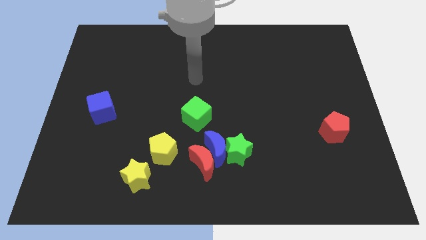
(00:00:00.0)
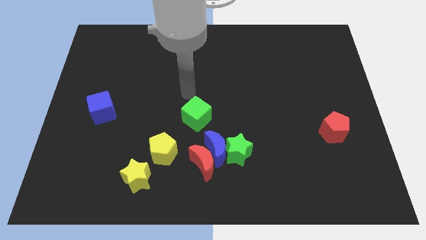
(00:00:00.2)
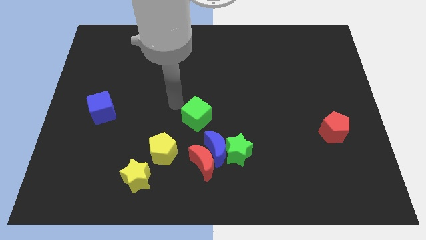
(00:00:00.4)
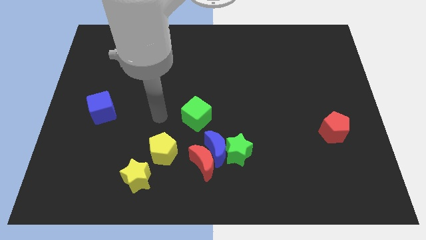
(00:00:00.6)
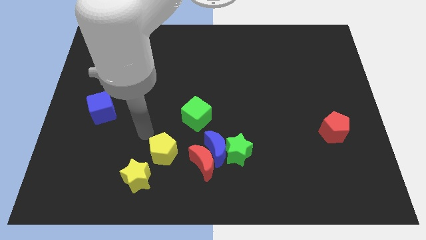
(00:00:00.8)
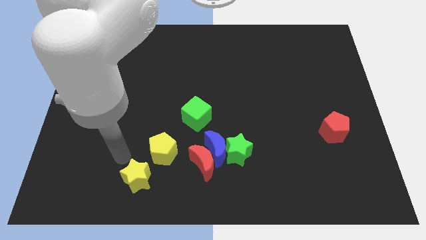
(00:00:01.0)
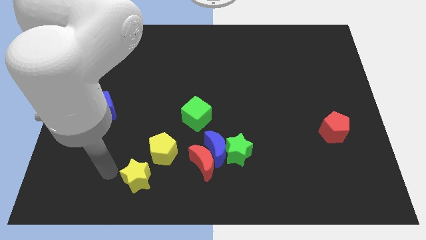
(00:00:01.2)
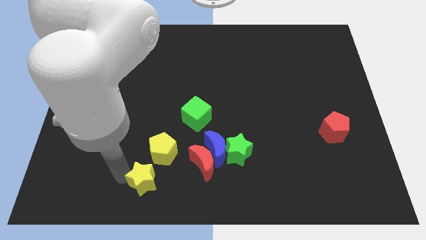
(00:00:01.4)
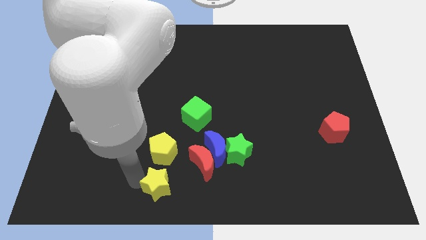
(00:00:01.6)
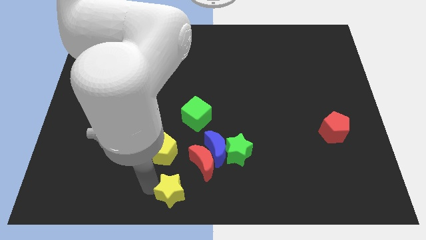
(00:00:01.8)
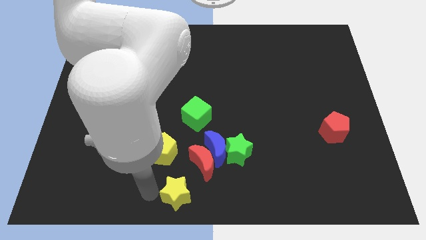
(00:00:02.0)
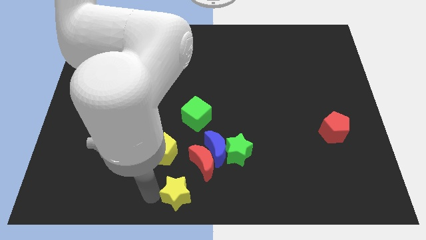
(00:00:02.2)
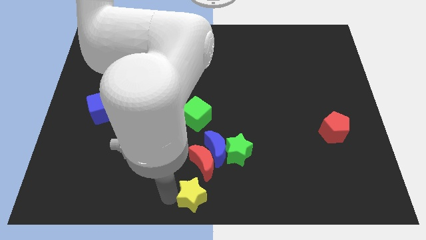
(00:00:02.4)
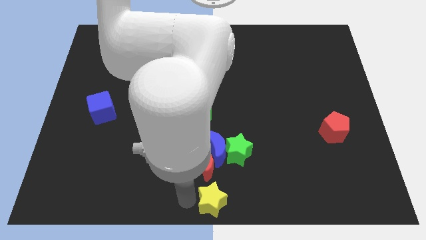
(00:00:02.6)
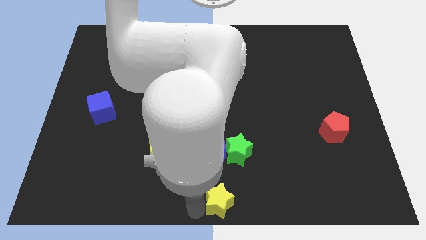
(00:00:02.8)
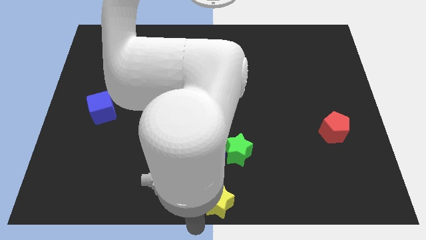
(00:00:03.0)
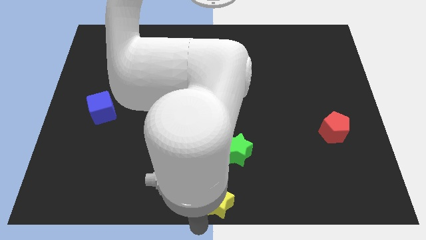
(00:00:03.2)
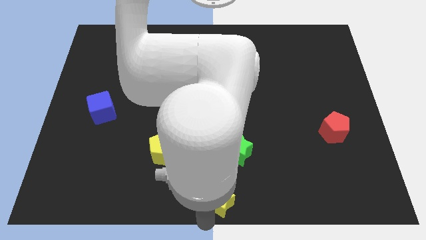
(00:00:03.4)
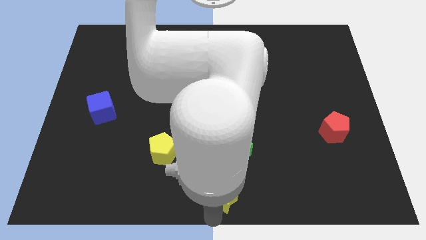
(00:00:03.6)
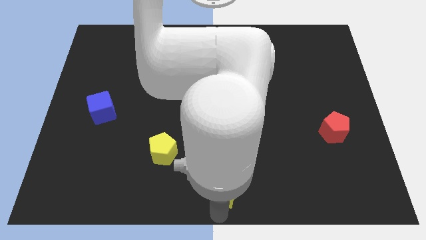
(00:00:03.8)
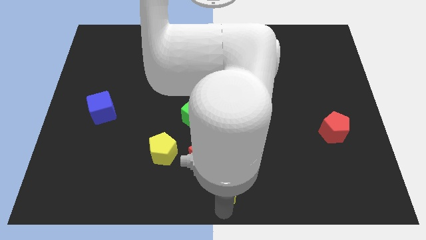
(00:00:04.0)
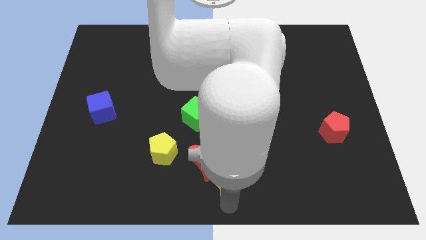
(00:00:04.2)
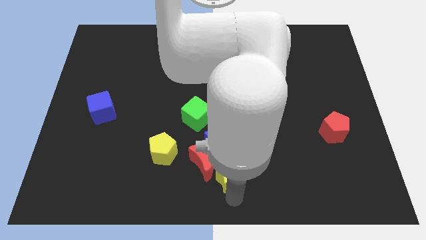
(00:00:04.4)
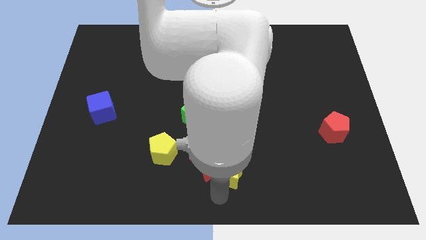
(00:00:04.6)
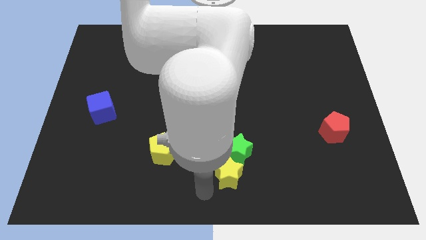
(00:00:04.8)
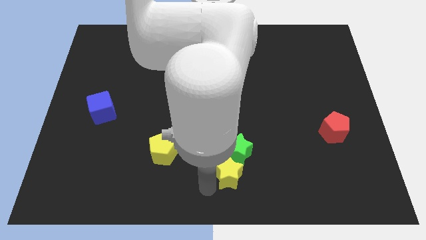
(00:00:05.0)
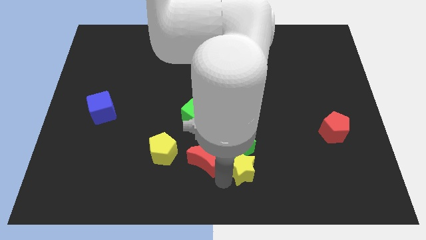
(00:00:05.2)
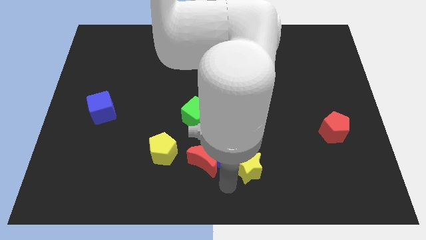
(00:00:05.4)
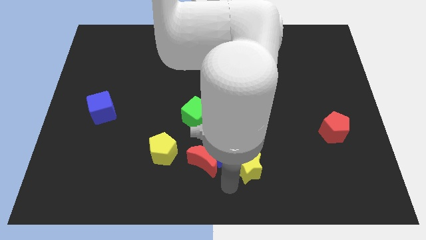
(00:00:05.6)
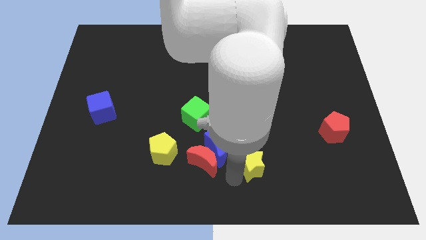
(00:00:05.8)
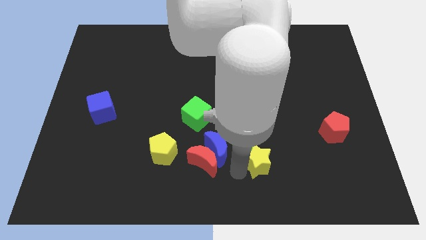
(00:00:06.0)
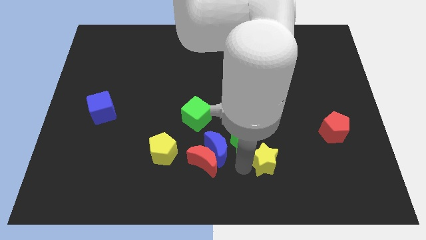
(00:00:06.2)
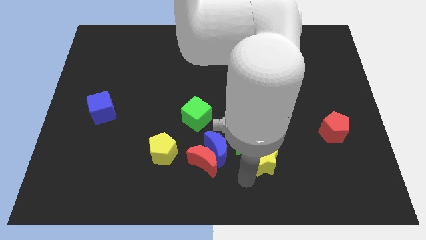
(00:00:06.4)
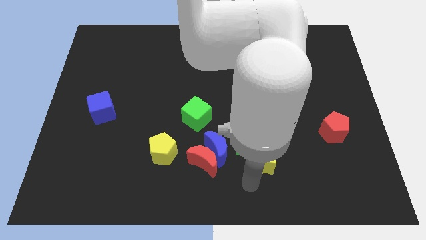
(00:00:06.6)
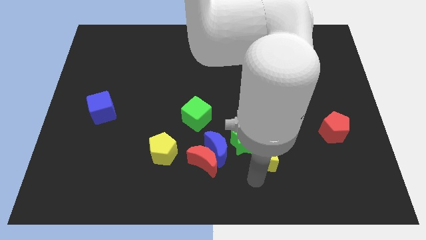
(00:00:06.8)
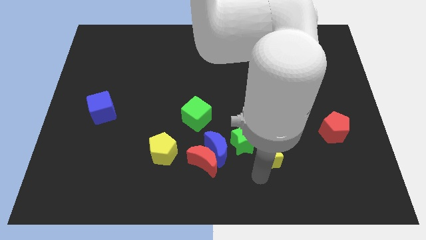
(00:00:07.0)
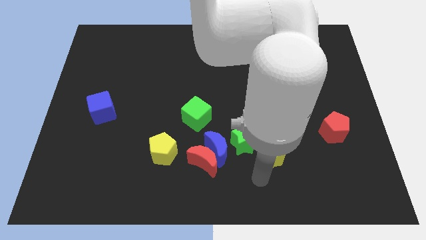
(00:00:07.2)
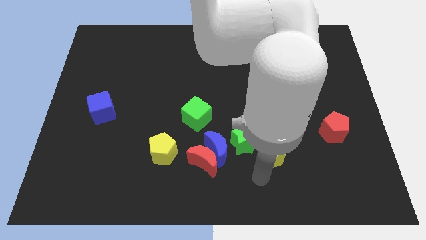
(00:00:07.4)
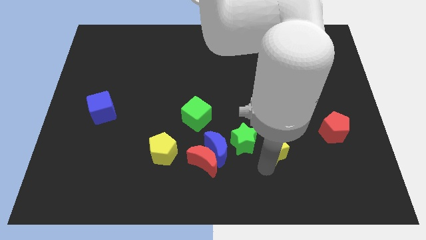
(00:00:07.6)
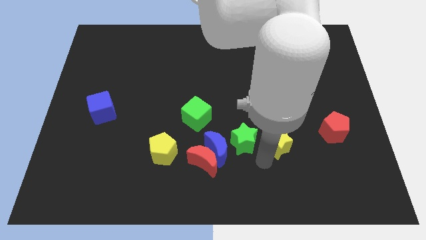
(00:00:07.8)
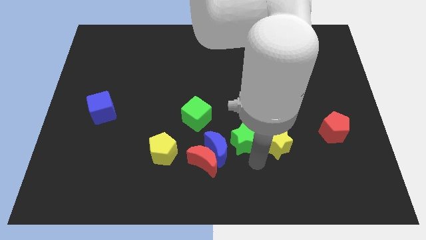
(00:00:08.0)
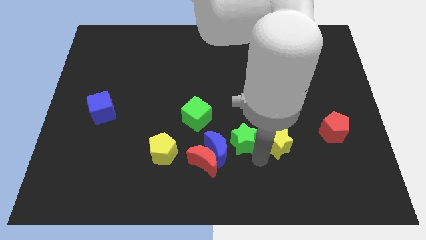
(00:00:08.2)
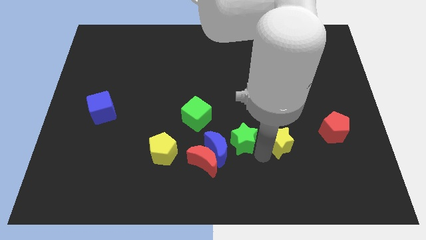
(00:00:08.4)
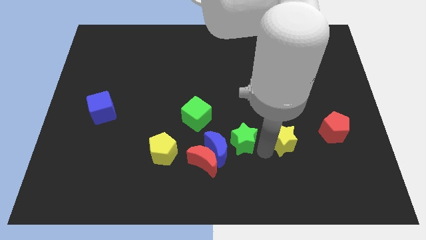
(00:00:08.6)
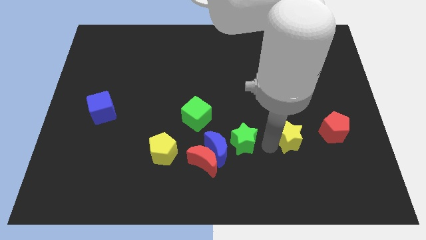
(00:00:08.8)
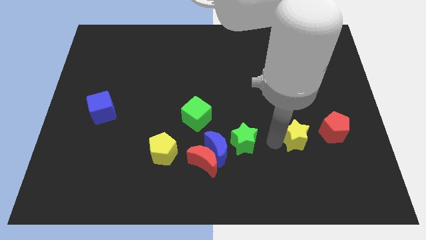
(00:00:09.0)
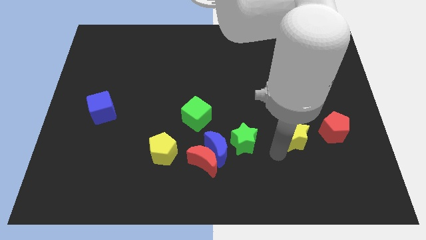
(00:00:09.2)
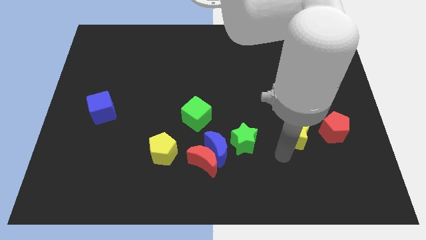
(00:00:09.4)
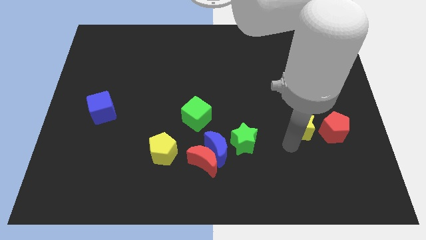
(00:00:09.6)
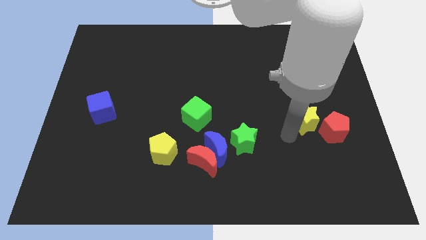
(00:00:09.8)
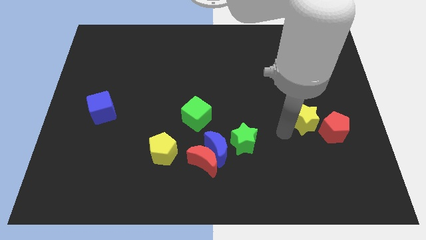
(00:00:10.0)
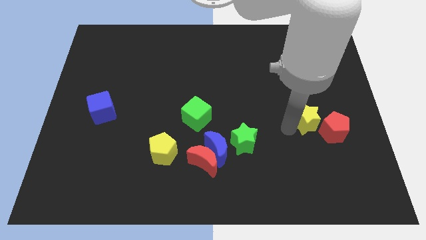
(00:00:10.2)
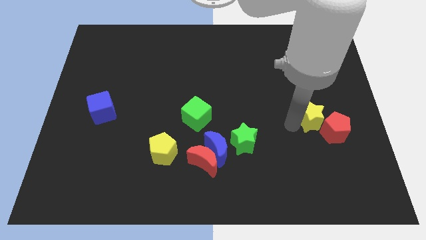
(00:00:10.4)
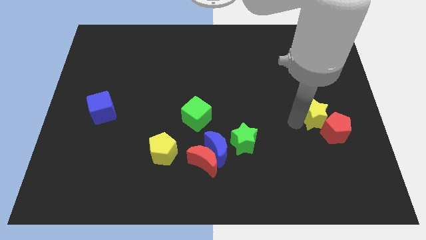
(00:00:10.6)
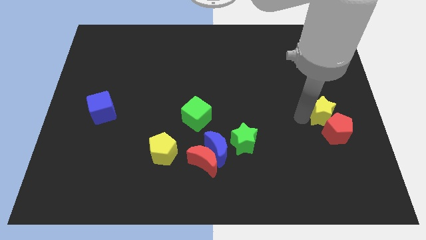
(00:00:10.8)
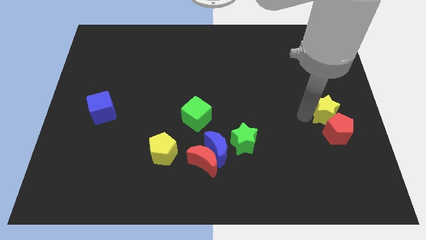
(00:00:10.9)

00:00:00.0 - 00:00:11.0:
slide the yellow star to the right side of the board

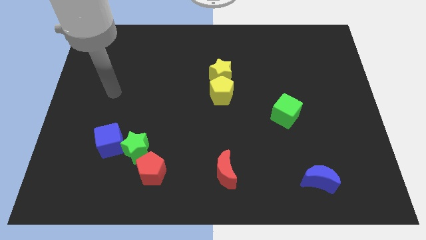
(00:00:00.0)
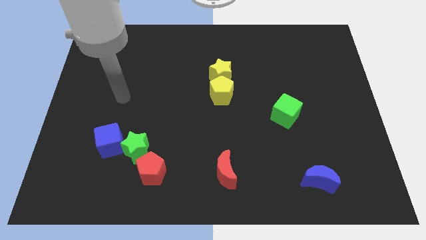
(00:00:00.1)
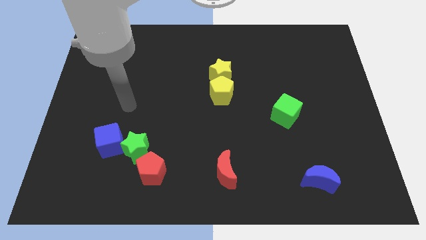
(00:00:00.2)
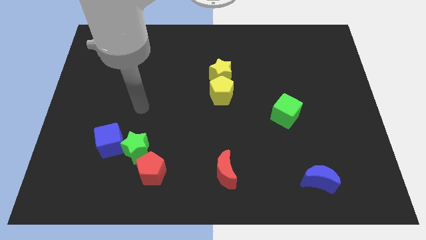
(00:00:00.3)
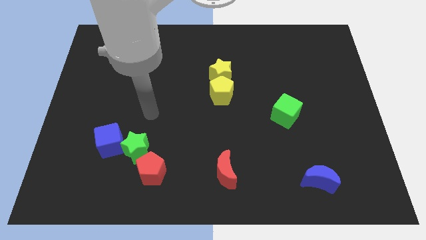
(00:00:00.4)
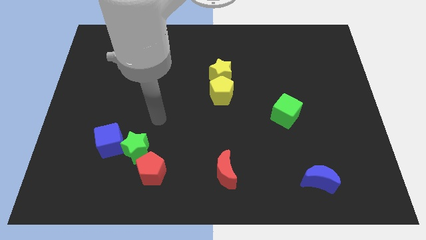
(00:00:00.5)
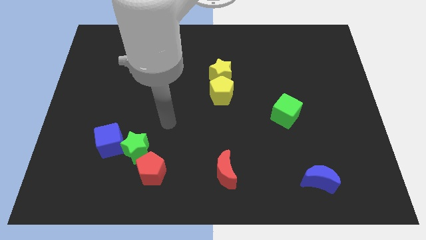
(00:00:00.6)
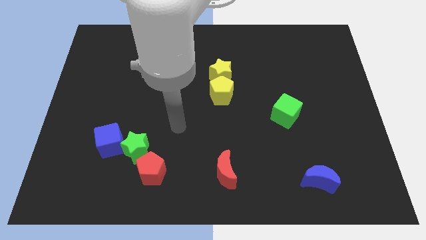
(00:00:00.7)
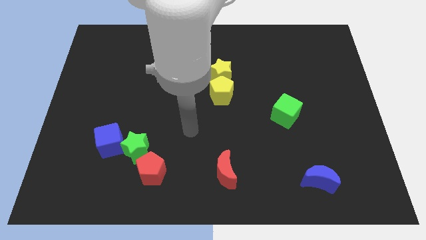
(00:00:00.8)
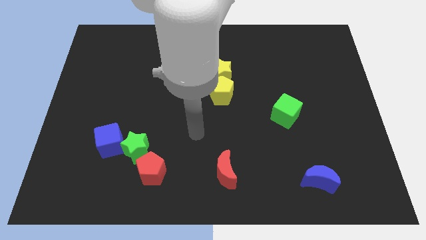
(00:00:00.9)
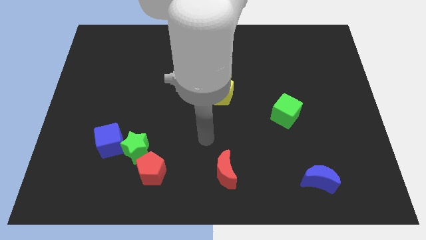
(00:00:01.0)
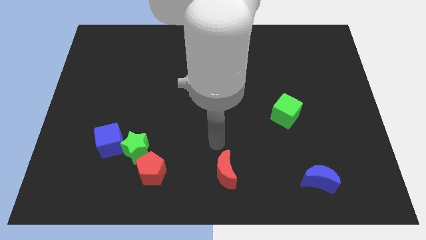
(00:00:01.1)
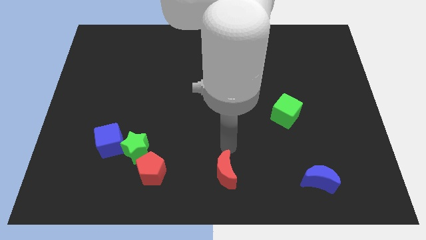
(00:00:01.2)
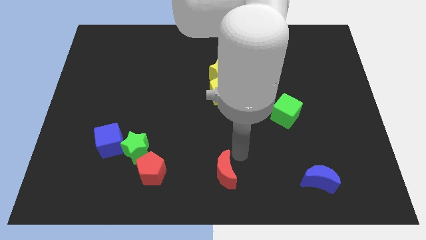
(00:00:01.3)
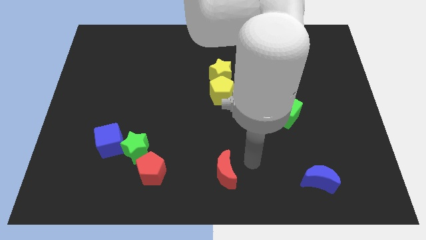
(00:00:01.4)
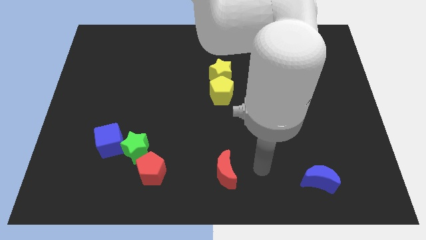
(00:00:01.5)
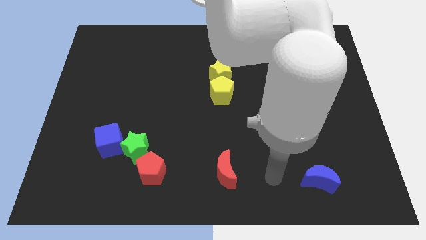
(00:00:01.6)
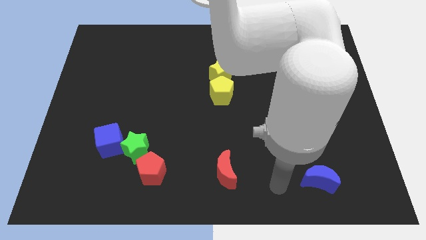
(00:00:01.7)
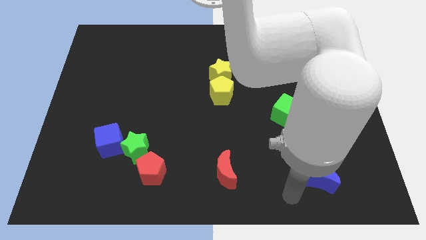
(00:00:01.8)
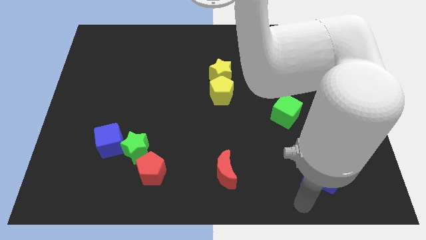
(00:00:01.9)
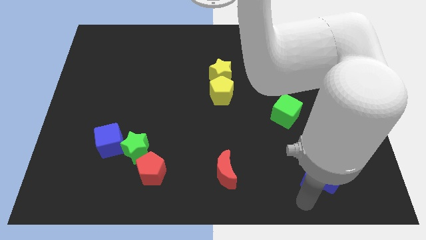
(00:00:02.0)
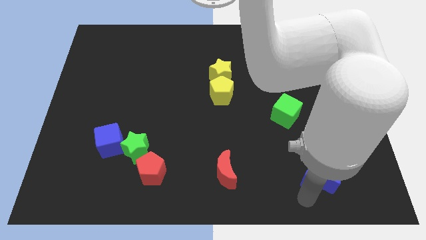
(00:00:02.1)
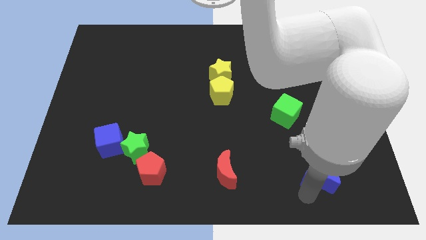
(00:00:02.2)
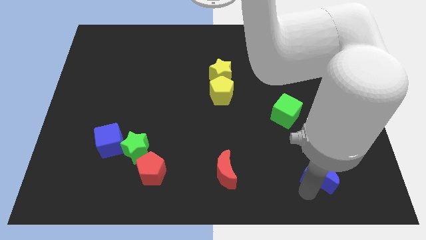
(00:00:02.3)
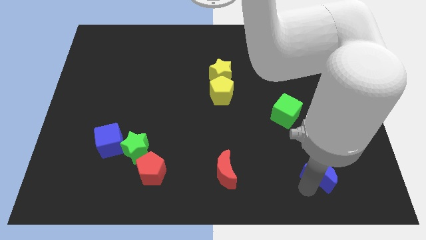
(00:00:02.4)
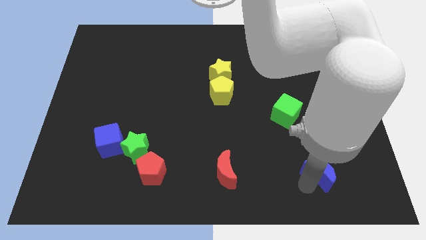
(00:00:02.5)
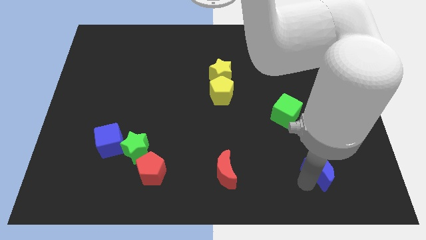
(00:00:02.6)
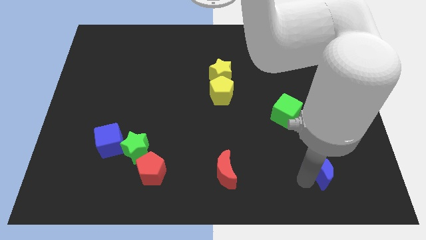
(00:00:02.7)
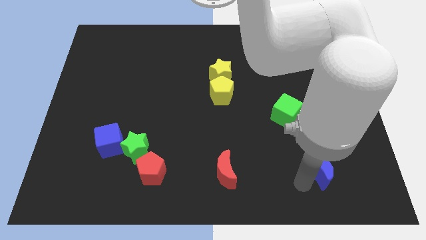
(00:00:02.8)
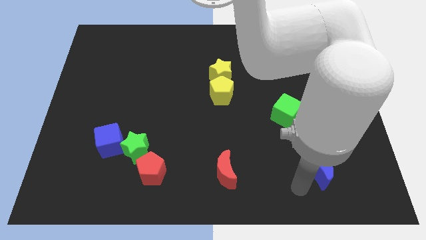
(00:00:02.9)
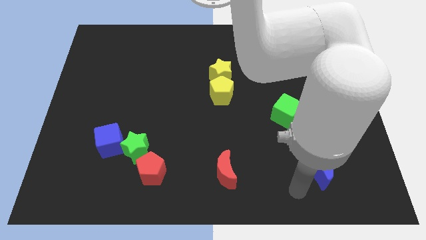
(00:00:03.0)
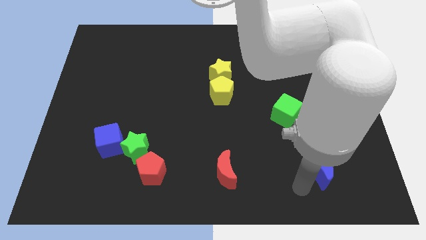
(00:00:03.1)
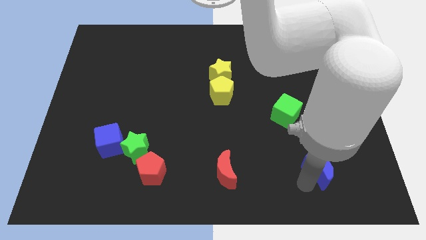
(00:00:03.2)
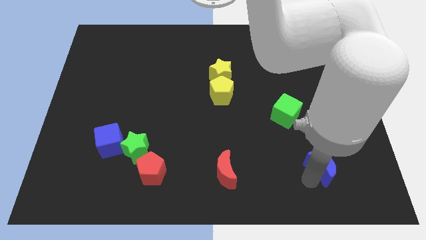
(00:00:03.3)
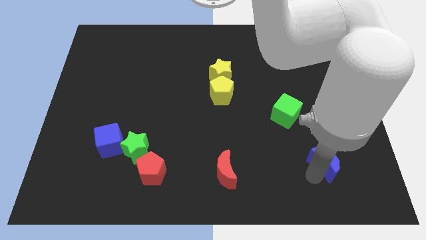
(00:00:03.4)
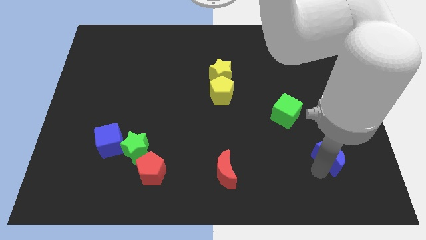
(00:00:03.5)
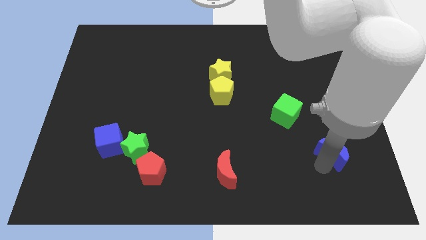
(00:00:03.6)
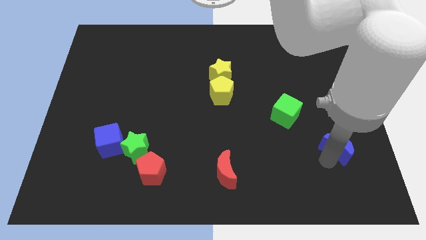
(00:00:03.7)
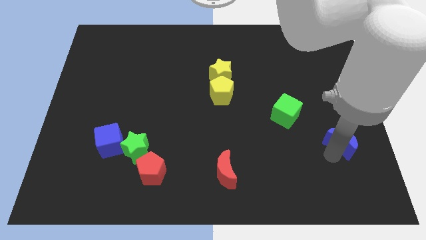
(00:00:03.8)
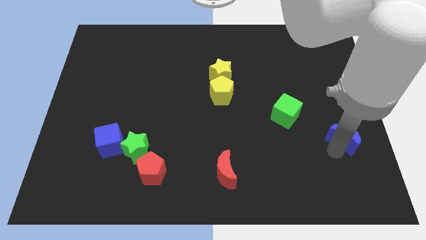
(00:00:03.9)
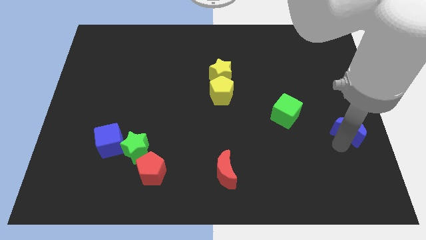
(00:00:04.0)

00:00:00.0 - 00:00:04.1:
move the blue moon to the center right
